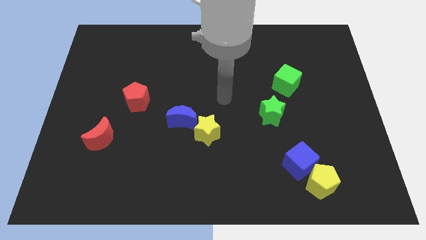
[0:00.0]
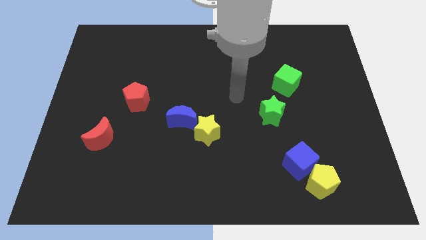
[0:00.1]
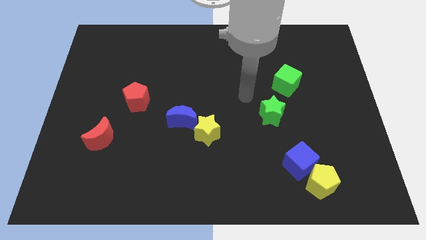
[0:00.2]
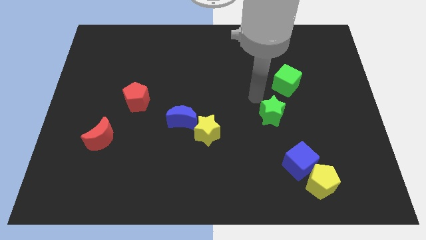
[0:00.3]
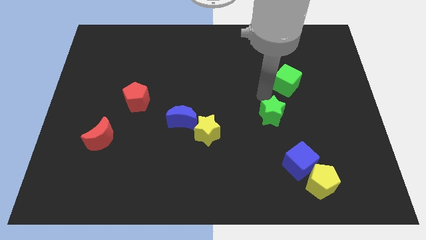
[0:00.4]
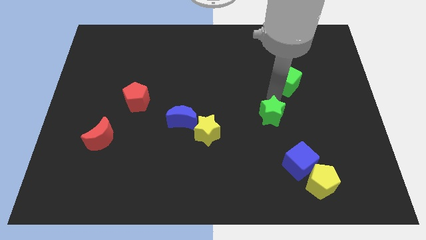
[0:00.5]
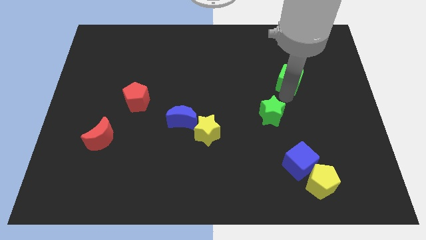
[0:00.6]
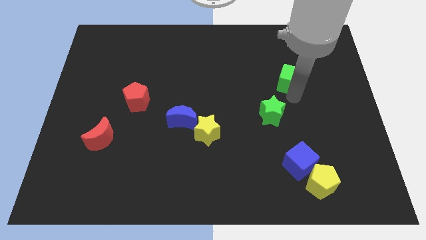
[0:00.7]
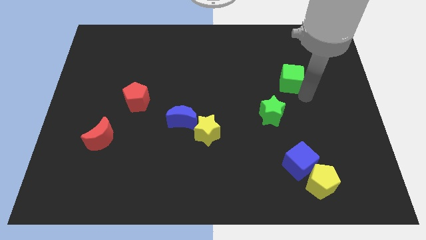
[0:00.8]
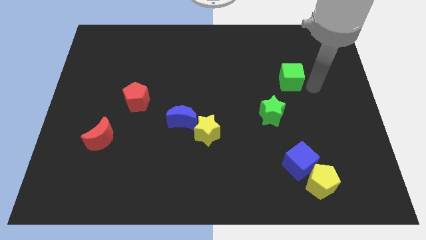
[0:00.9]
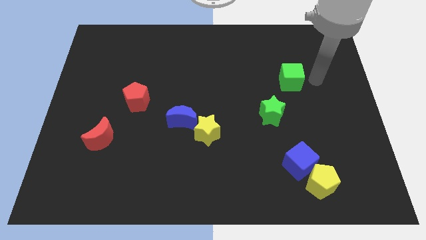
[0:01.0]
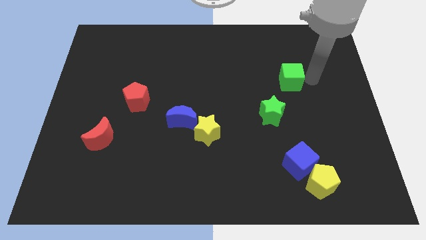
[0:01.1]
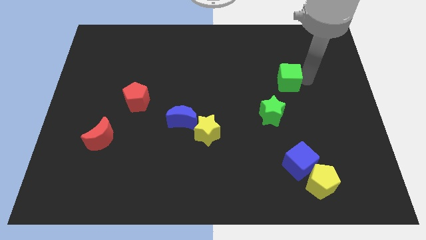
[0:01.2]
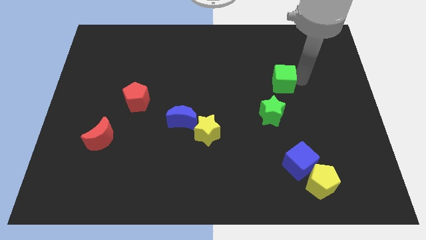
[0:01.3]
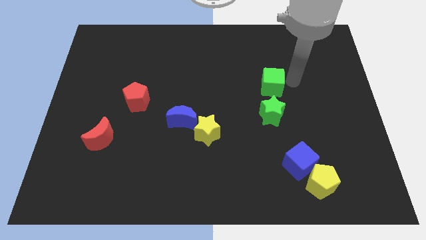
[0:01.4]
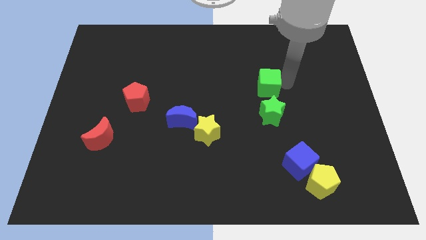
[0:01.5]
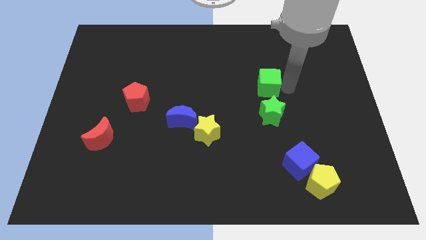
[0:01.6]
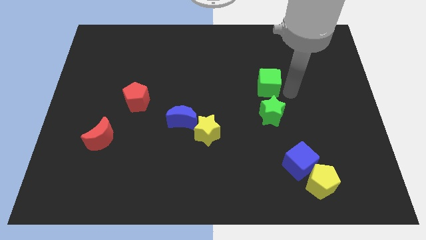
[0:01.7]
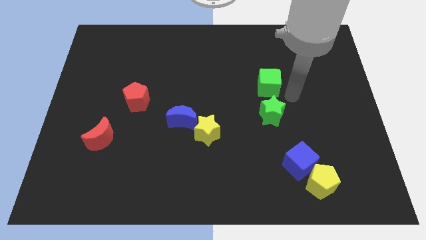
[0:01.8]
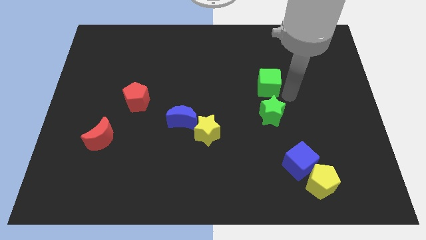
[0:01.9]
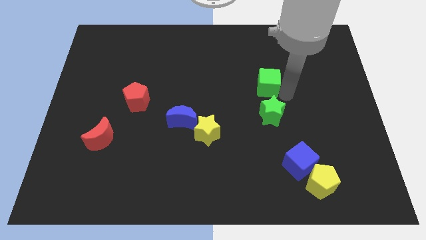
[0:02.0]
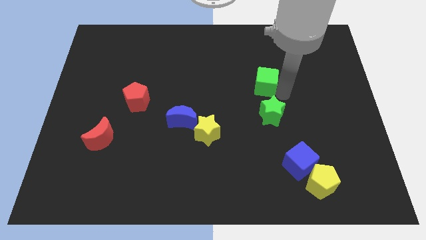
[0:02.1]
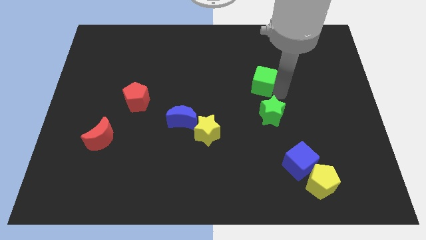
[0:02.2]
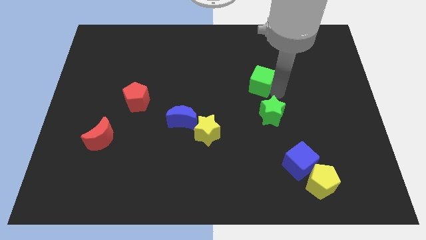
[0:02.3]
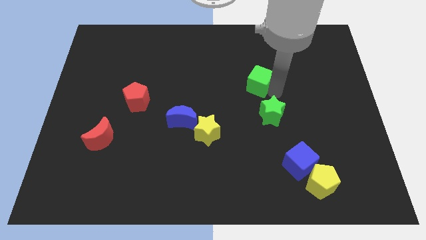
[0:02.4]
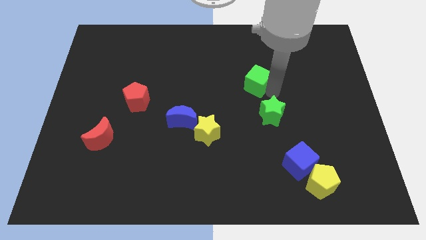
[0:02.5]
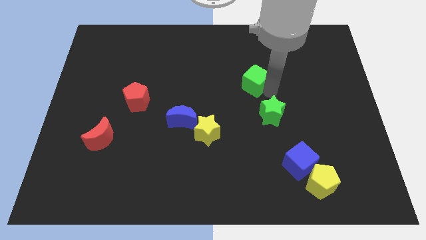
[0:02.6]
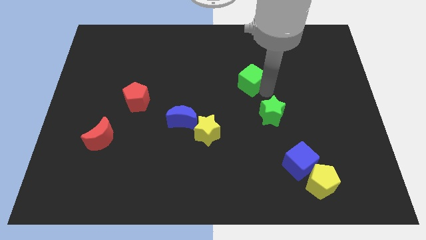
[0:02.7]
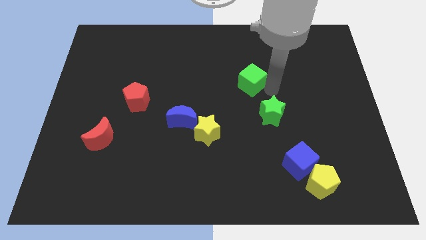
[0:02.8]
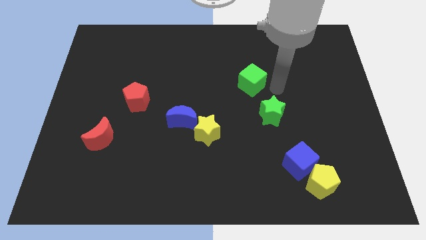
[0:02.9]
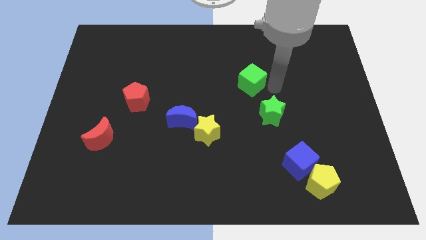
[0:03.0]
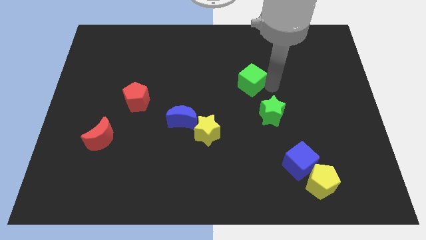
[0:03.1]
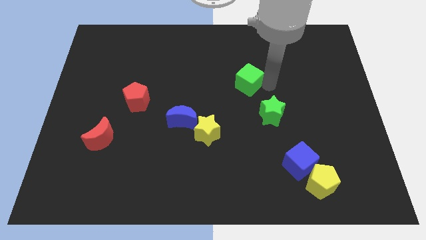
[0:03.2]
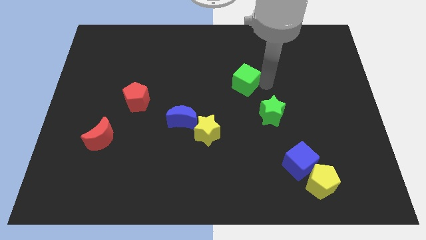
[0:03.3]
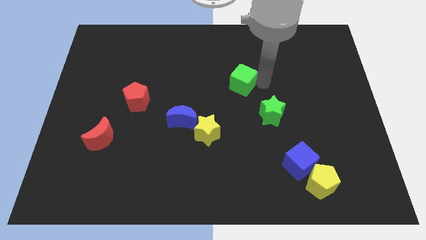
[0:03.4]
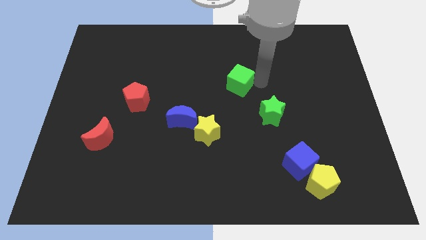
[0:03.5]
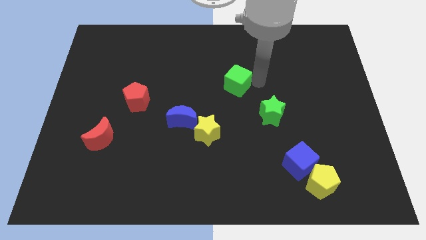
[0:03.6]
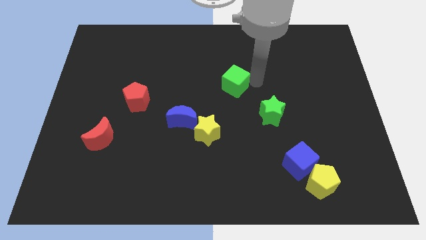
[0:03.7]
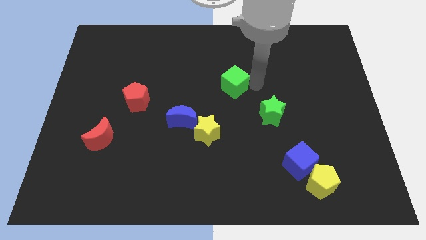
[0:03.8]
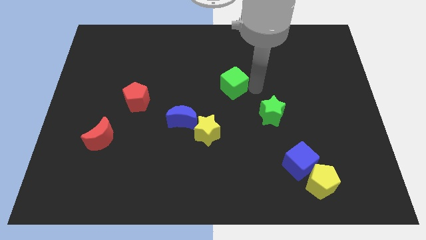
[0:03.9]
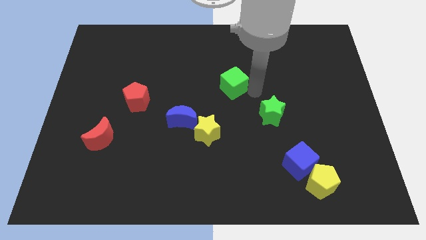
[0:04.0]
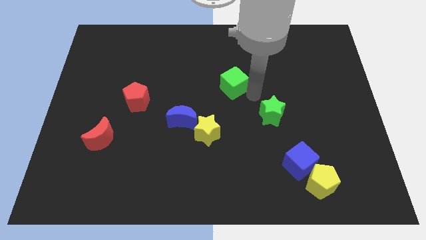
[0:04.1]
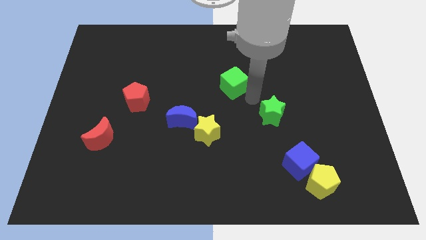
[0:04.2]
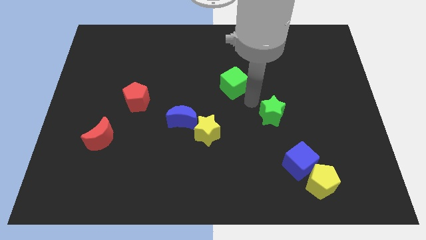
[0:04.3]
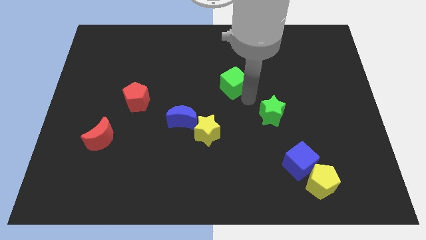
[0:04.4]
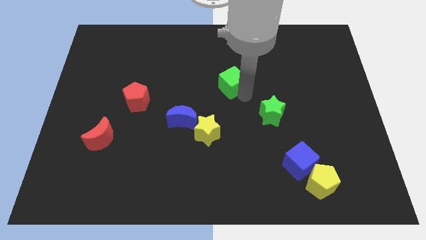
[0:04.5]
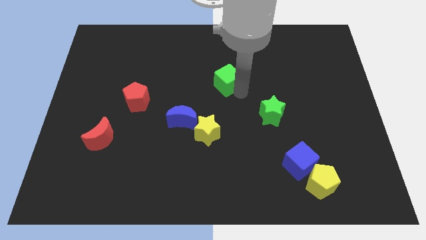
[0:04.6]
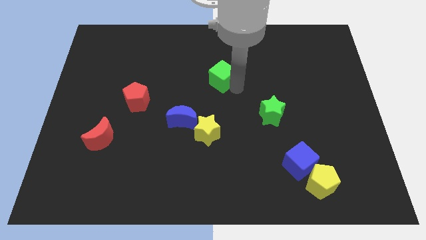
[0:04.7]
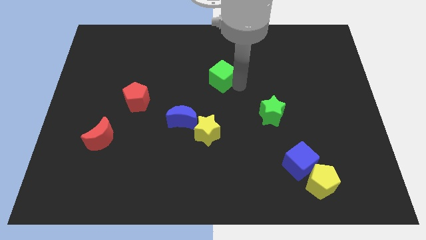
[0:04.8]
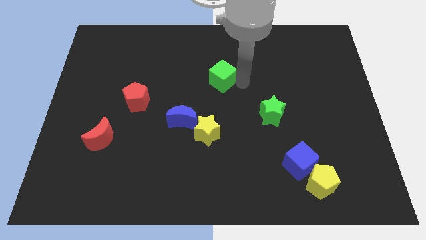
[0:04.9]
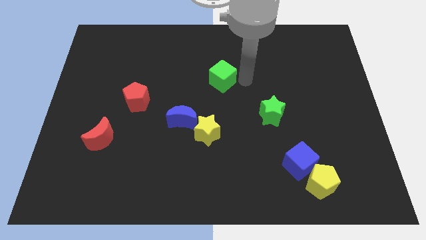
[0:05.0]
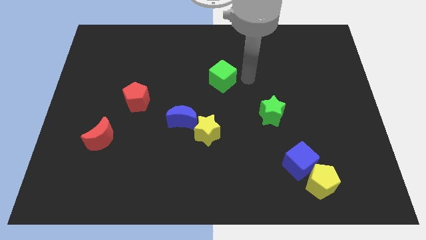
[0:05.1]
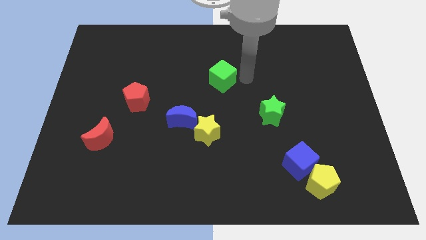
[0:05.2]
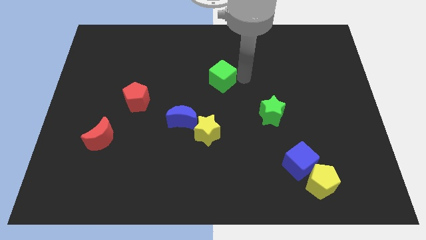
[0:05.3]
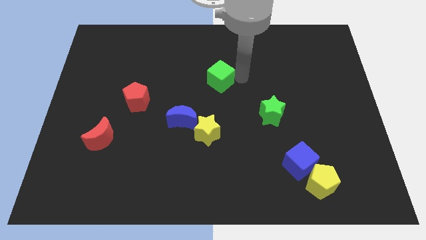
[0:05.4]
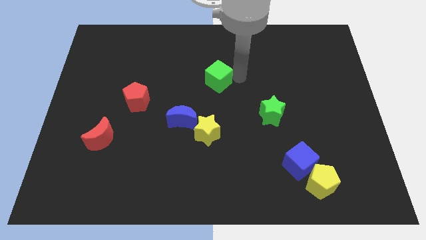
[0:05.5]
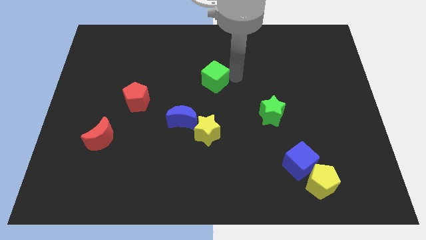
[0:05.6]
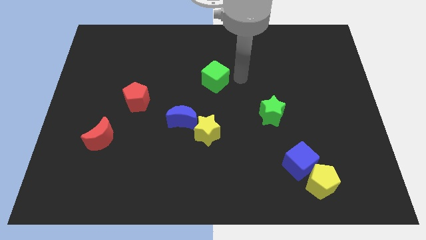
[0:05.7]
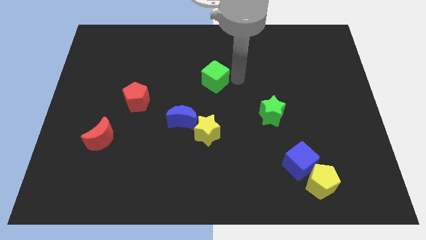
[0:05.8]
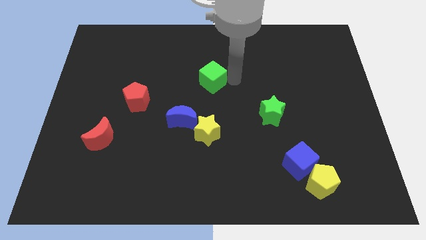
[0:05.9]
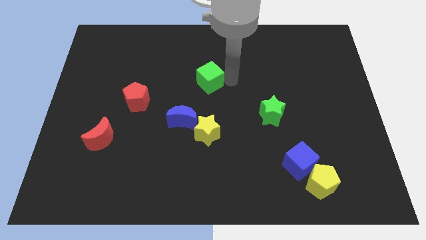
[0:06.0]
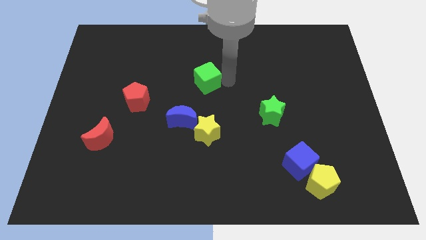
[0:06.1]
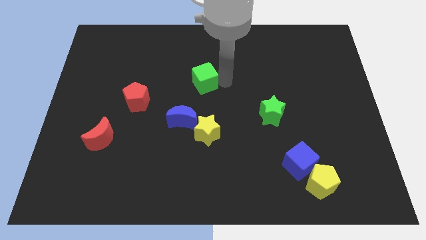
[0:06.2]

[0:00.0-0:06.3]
push the green cube to the left

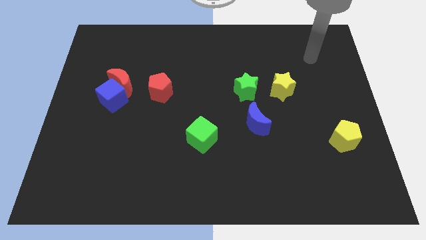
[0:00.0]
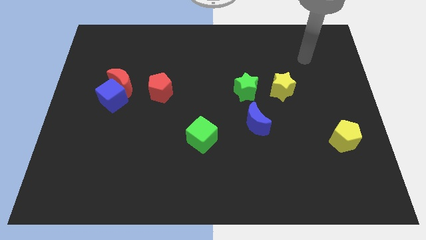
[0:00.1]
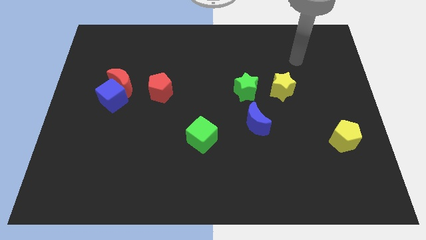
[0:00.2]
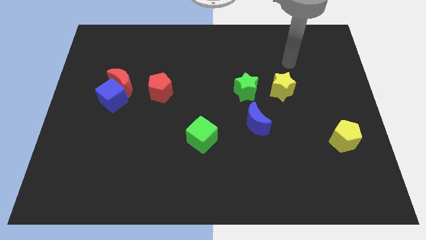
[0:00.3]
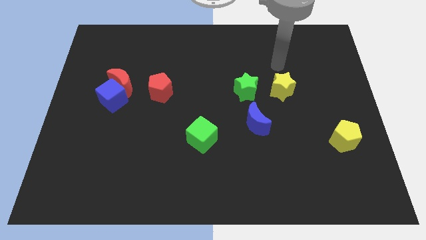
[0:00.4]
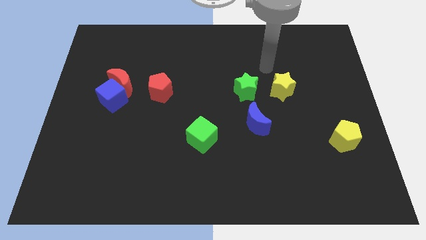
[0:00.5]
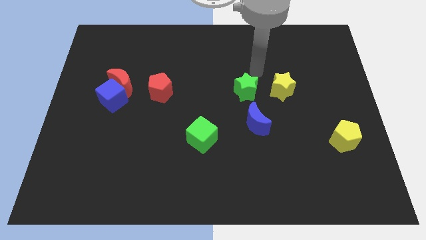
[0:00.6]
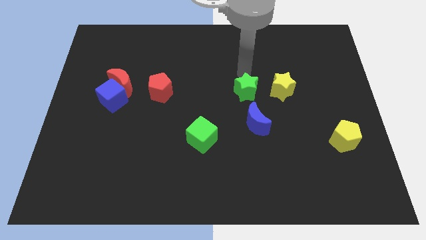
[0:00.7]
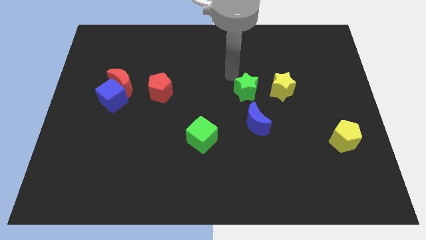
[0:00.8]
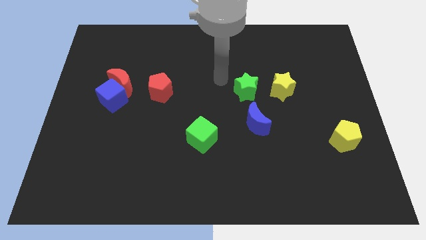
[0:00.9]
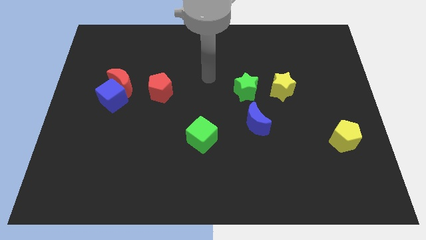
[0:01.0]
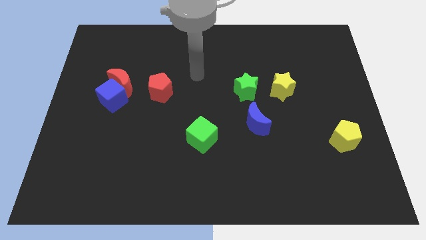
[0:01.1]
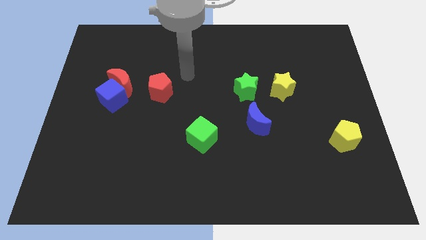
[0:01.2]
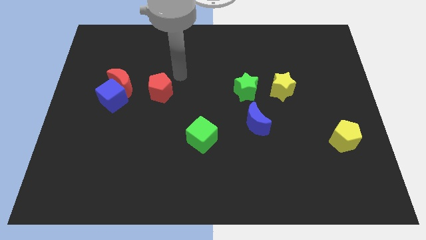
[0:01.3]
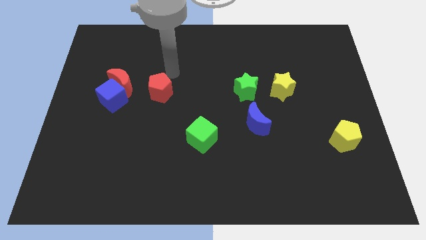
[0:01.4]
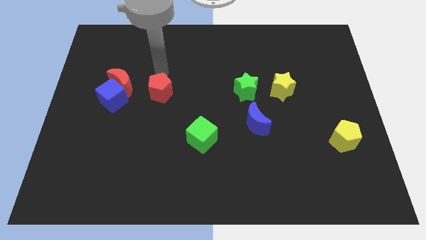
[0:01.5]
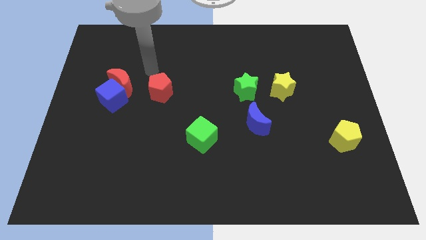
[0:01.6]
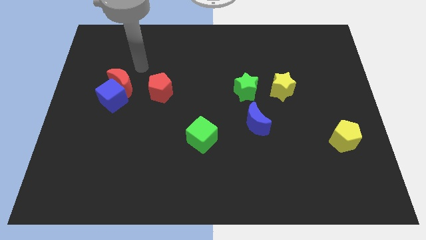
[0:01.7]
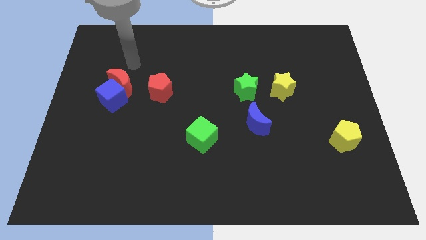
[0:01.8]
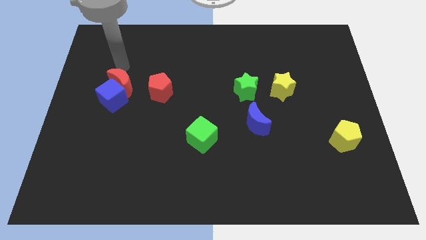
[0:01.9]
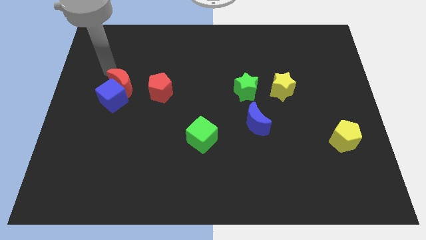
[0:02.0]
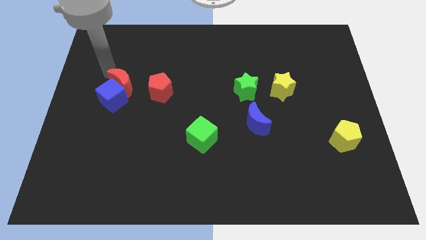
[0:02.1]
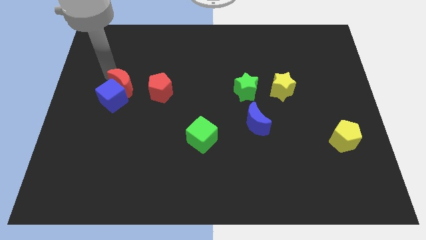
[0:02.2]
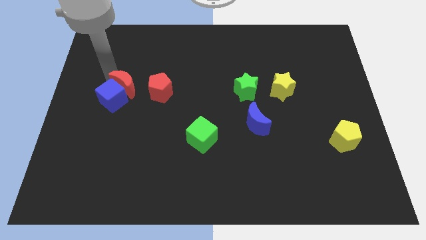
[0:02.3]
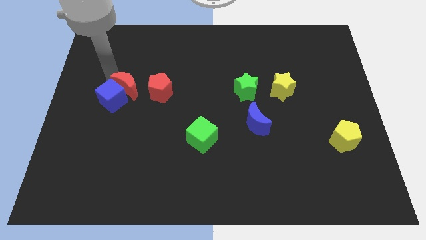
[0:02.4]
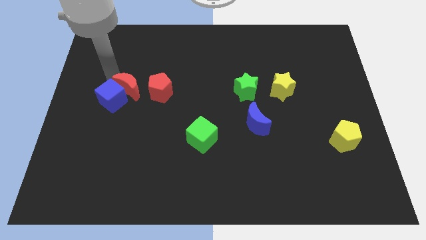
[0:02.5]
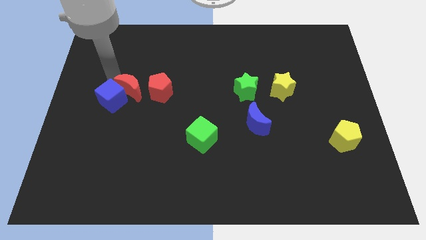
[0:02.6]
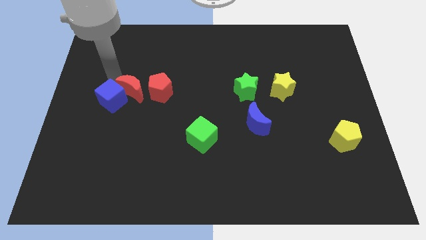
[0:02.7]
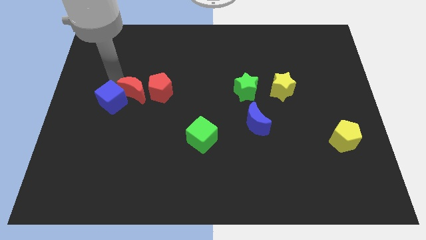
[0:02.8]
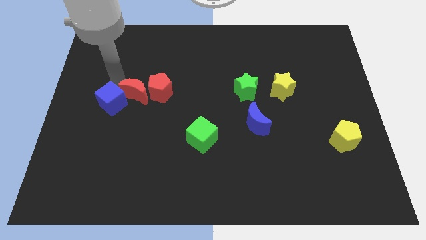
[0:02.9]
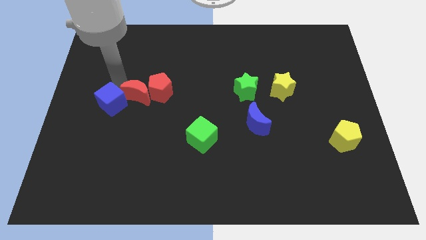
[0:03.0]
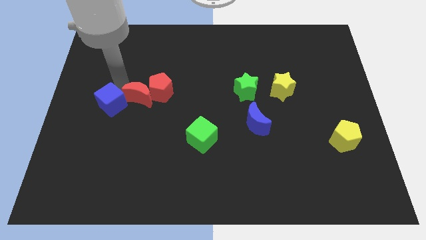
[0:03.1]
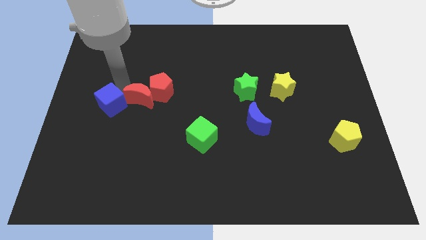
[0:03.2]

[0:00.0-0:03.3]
push the red moon diagonally downwards and right a bit
